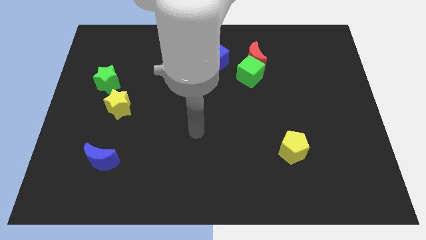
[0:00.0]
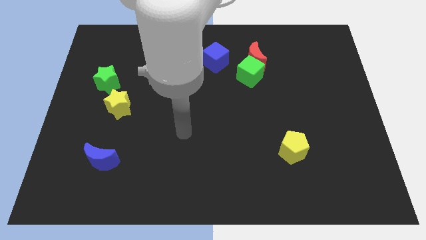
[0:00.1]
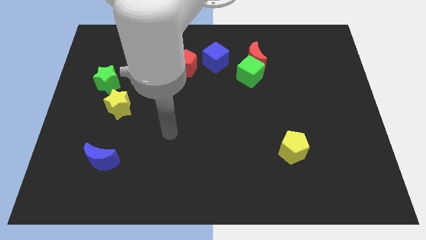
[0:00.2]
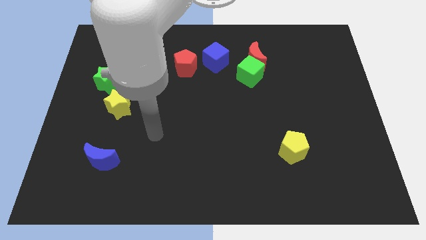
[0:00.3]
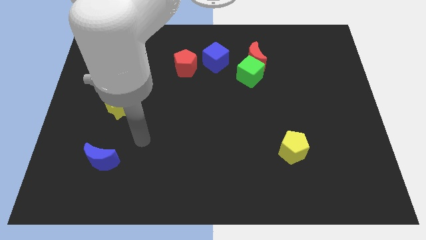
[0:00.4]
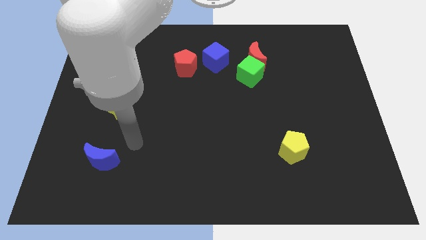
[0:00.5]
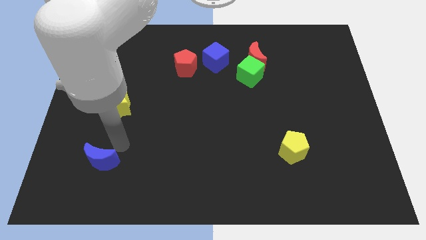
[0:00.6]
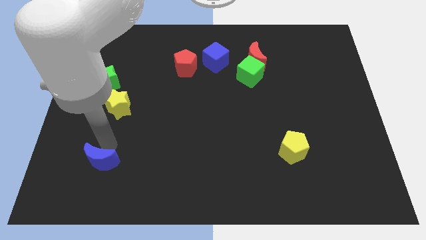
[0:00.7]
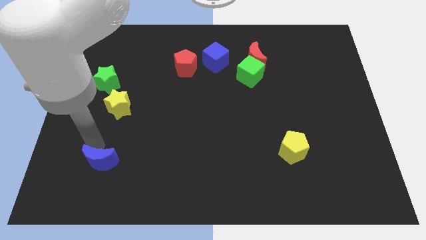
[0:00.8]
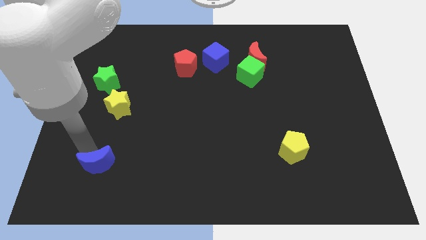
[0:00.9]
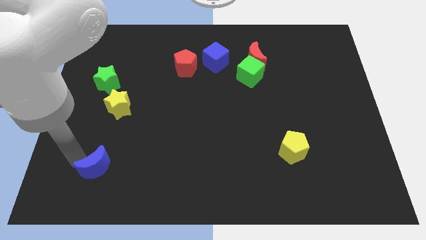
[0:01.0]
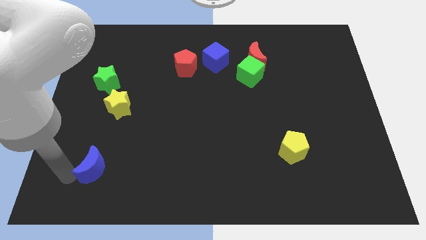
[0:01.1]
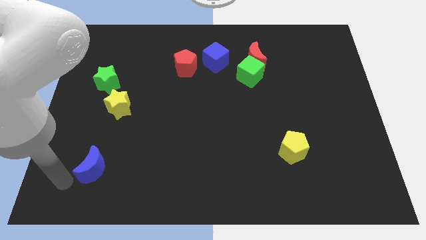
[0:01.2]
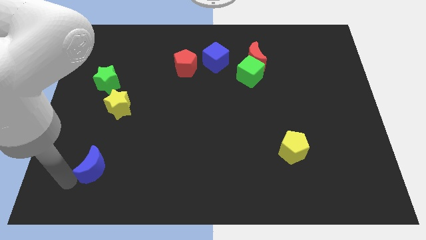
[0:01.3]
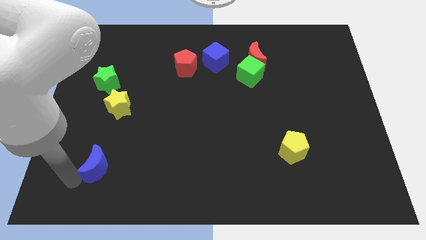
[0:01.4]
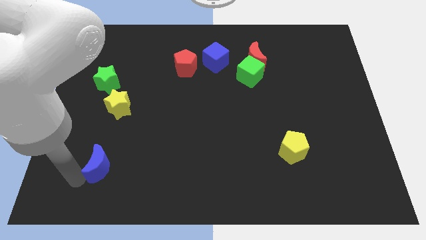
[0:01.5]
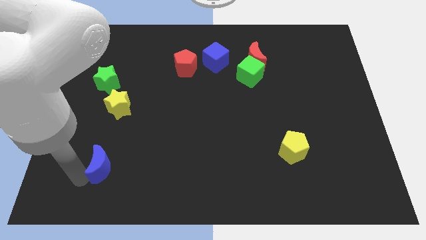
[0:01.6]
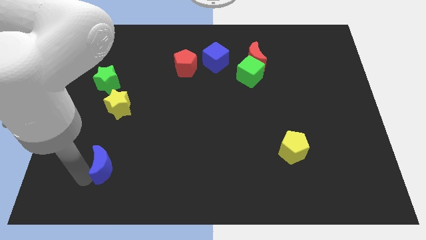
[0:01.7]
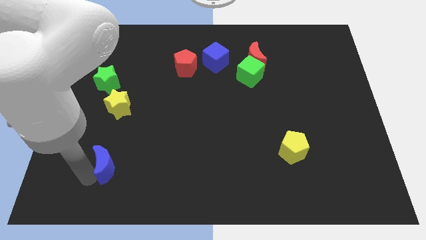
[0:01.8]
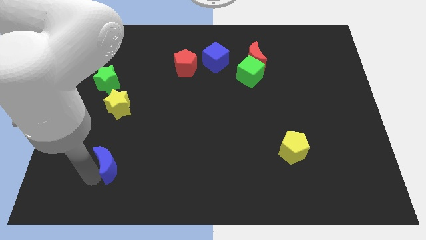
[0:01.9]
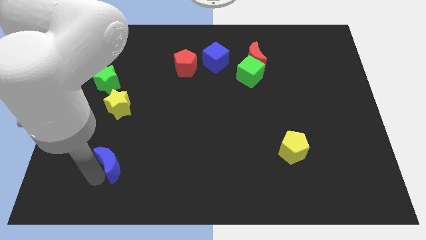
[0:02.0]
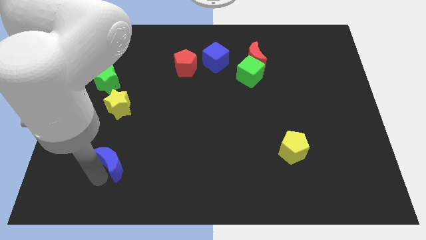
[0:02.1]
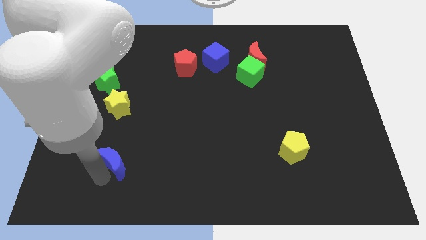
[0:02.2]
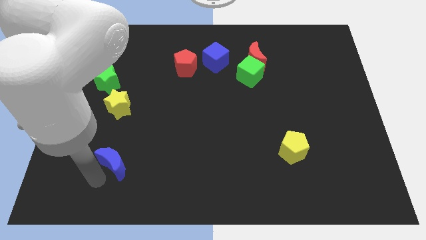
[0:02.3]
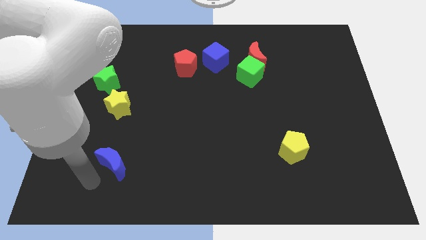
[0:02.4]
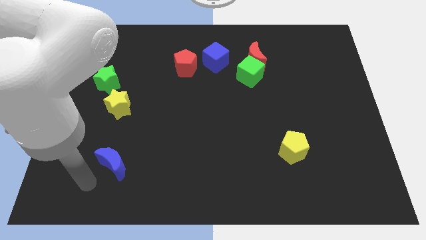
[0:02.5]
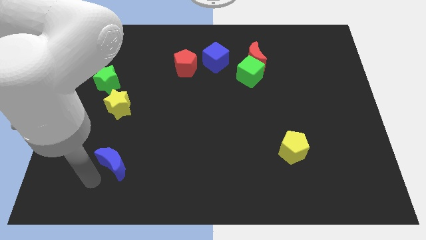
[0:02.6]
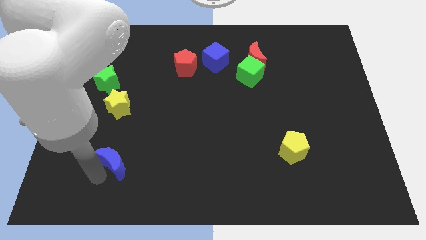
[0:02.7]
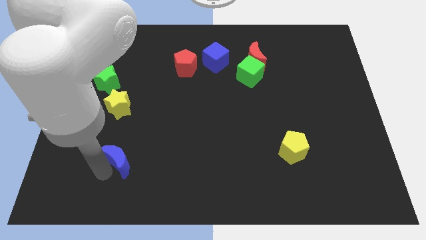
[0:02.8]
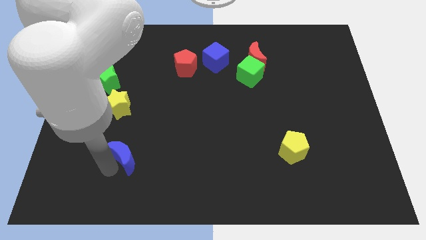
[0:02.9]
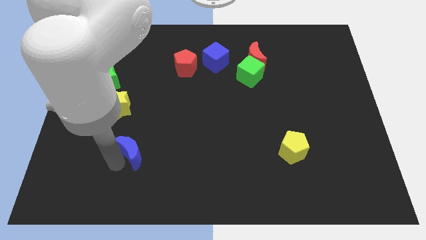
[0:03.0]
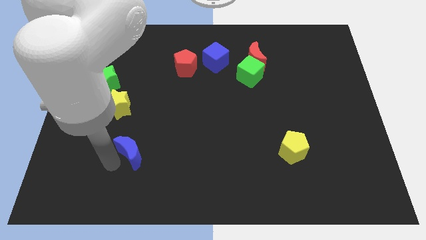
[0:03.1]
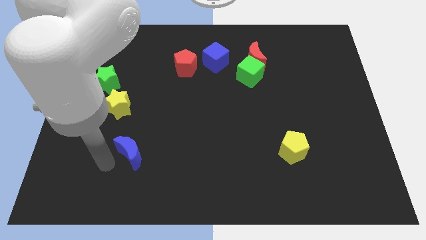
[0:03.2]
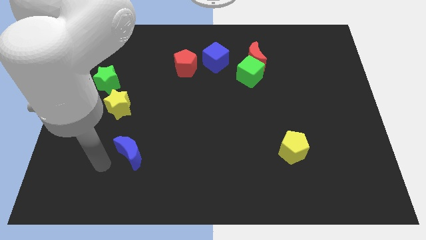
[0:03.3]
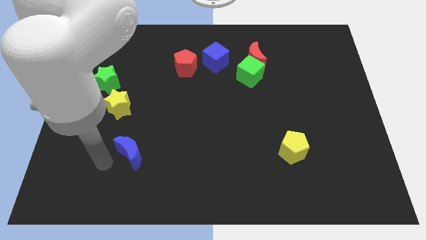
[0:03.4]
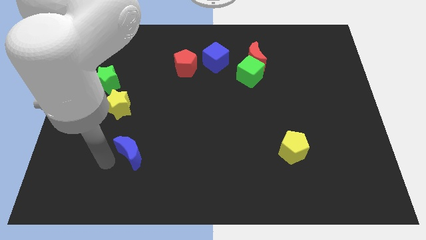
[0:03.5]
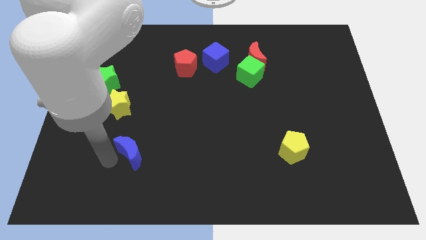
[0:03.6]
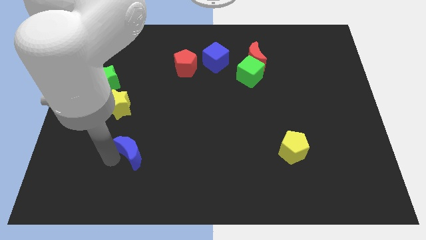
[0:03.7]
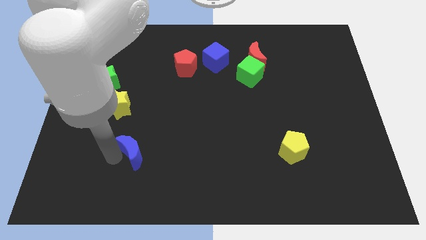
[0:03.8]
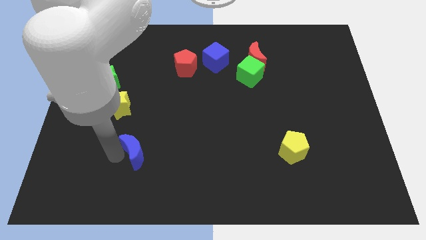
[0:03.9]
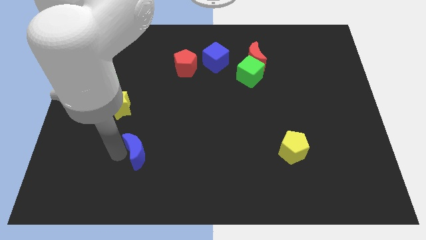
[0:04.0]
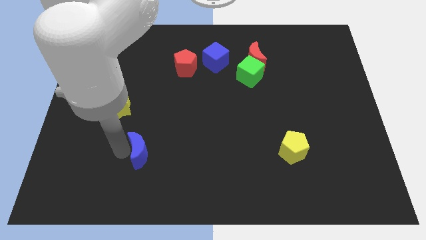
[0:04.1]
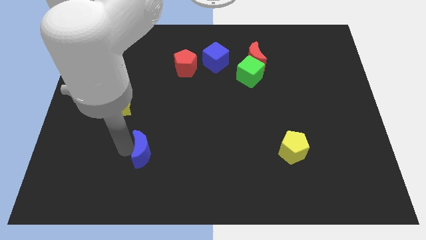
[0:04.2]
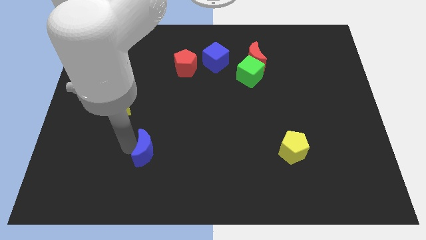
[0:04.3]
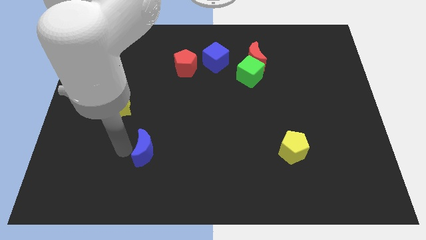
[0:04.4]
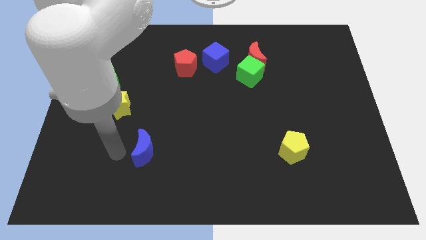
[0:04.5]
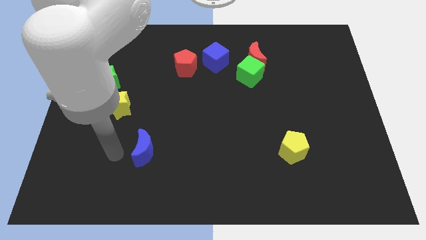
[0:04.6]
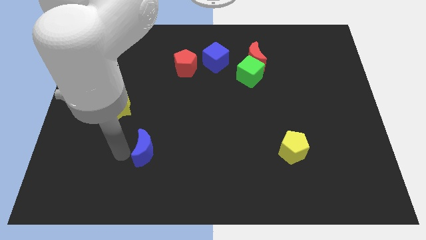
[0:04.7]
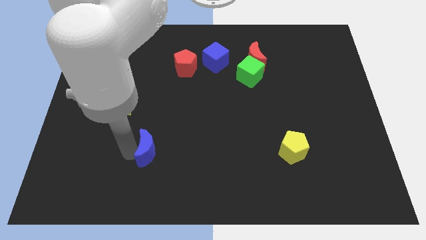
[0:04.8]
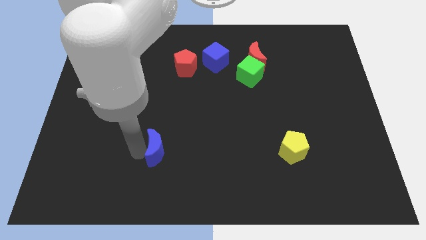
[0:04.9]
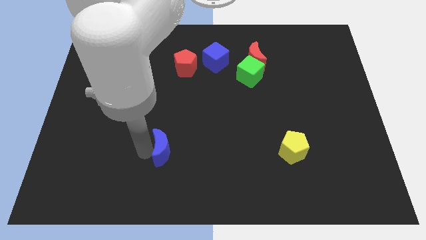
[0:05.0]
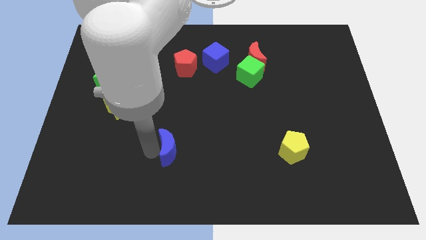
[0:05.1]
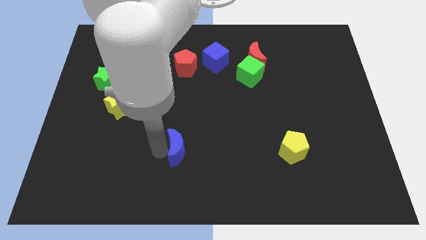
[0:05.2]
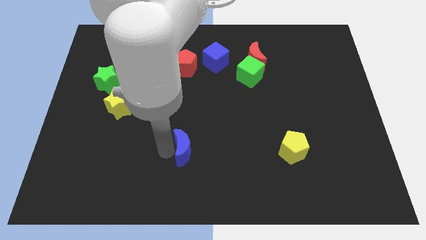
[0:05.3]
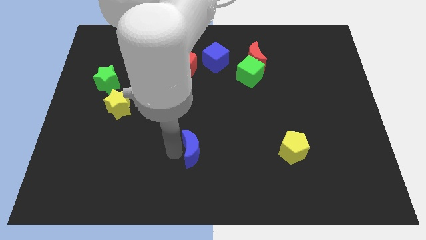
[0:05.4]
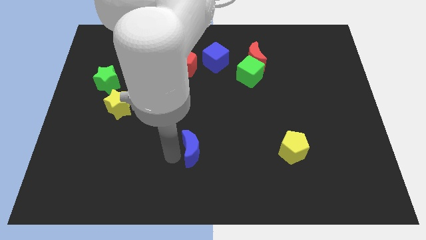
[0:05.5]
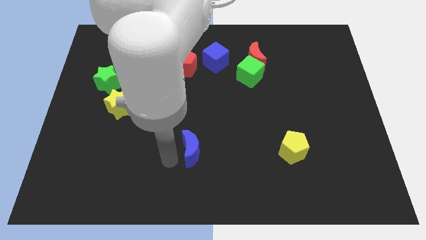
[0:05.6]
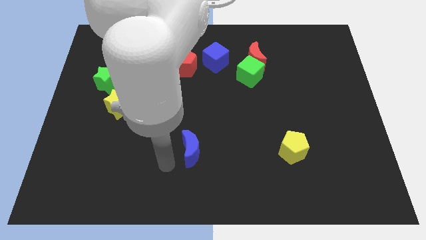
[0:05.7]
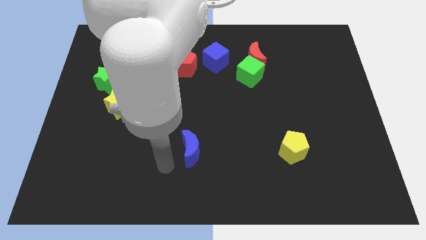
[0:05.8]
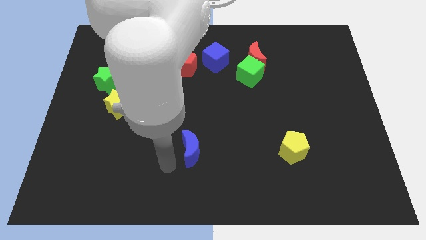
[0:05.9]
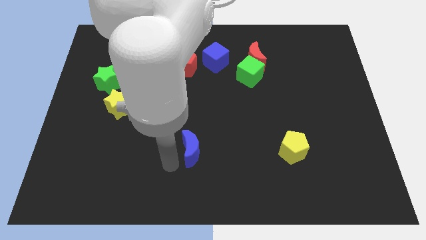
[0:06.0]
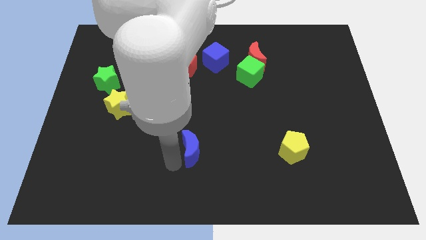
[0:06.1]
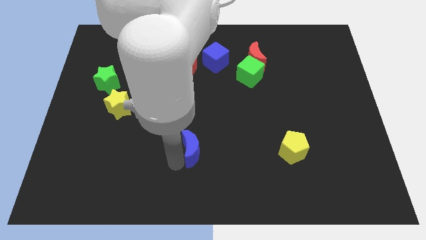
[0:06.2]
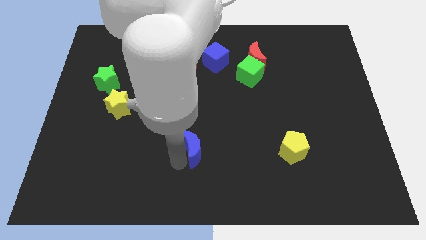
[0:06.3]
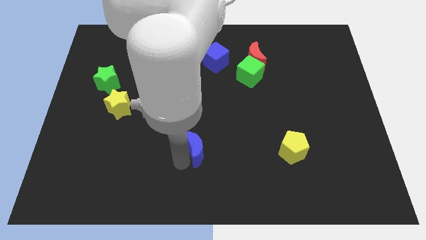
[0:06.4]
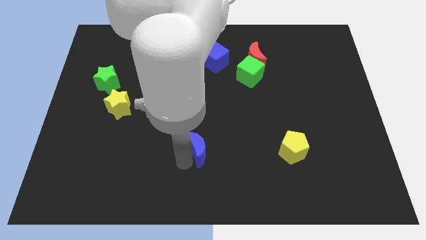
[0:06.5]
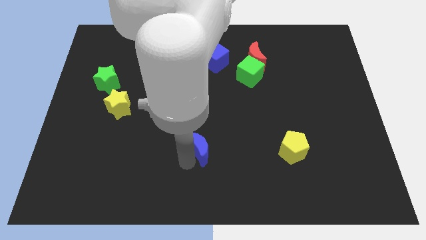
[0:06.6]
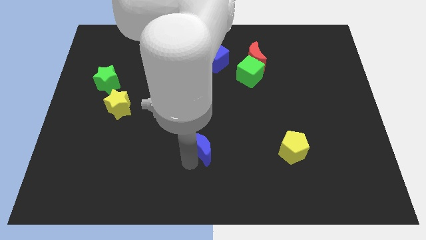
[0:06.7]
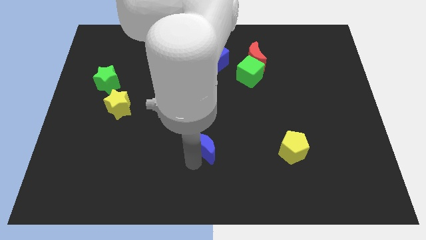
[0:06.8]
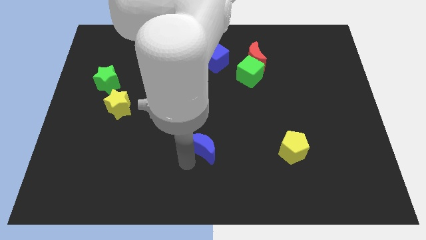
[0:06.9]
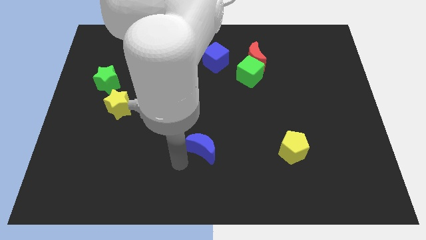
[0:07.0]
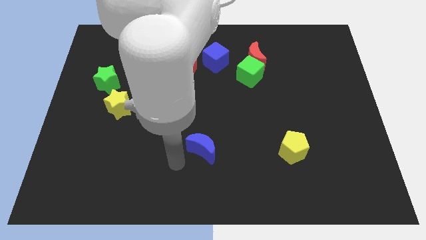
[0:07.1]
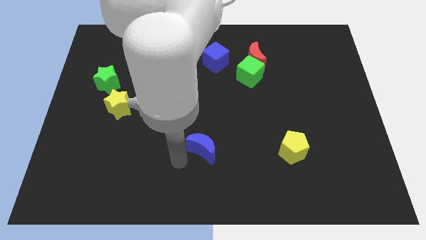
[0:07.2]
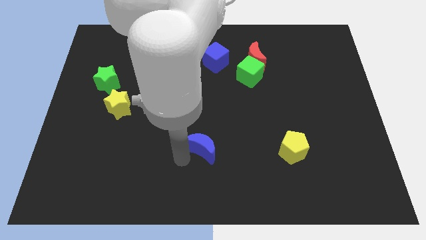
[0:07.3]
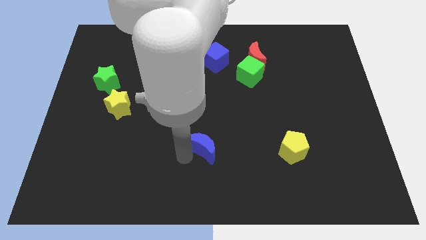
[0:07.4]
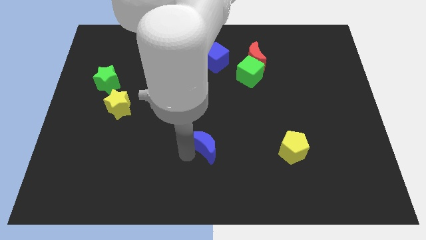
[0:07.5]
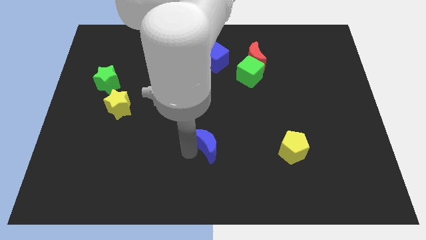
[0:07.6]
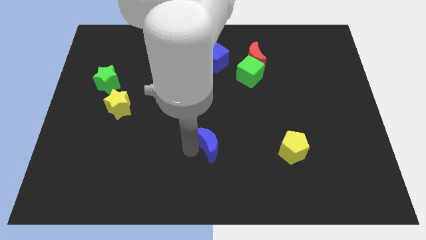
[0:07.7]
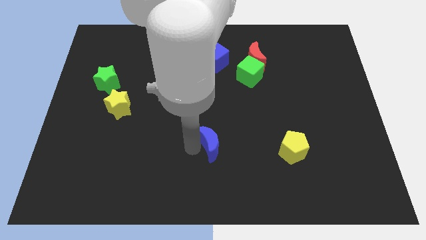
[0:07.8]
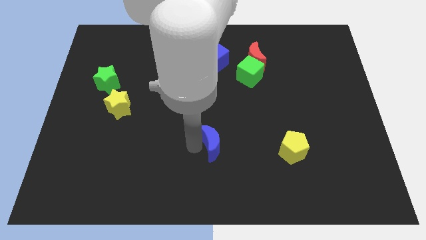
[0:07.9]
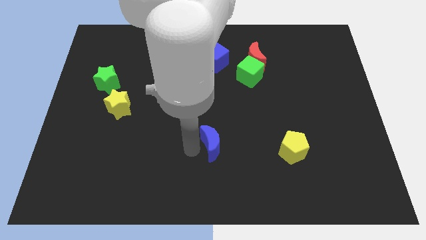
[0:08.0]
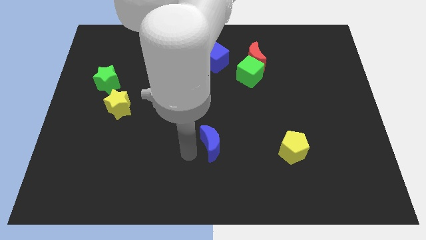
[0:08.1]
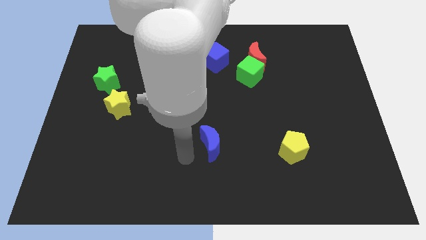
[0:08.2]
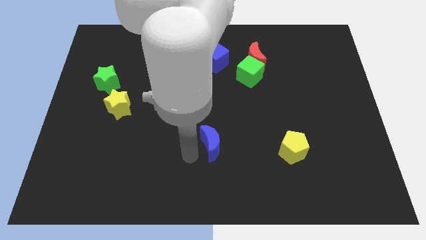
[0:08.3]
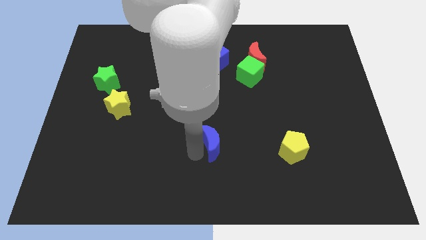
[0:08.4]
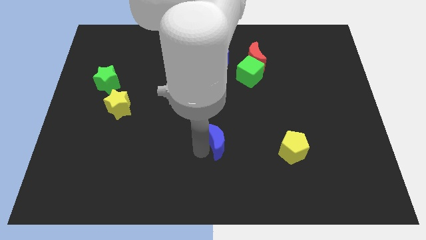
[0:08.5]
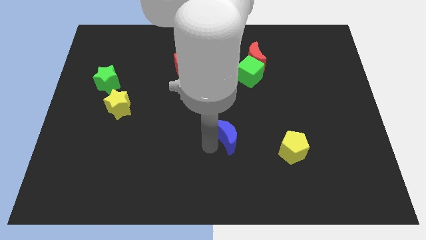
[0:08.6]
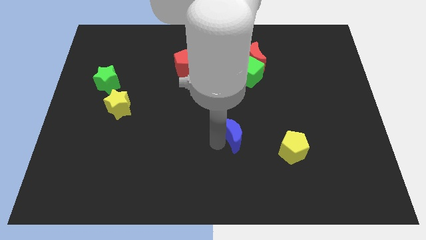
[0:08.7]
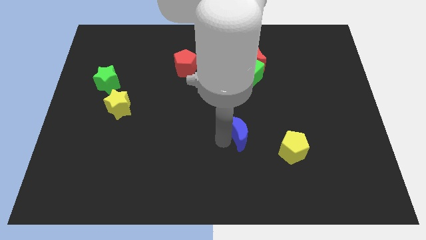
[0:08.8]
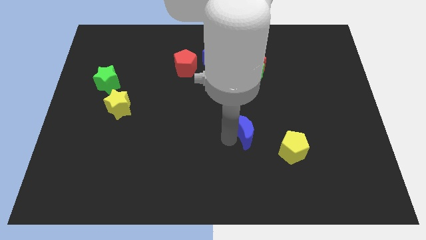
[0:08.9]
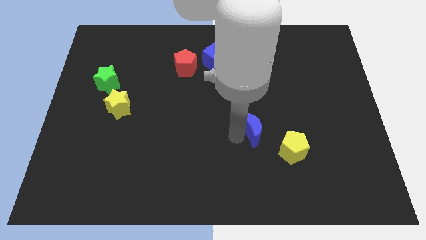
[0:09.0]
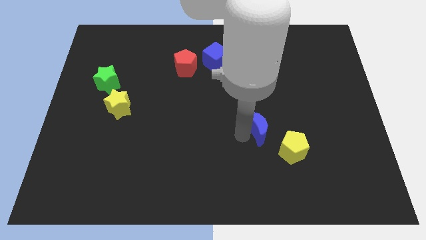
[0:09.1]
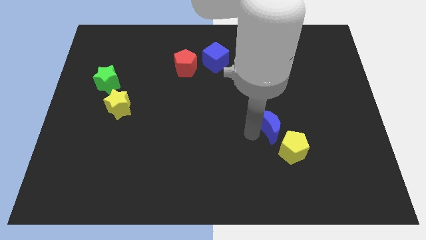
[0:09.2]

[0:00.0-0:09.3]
move the blue moon to the top side of the yellow pentagon
